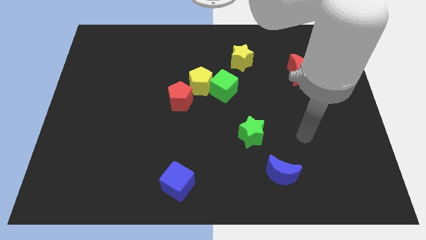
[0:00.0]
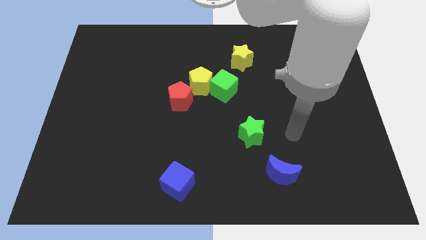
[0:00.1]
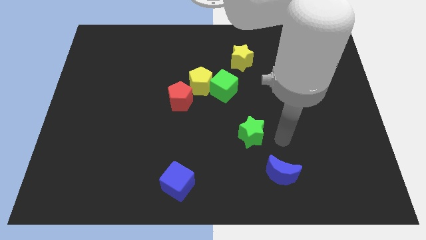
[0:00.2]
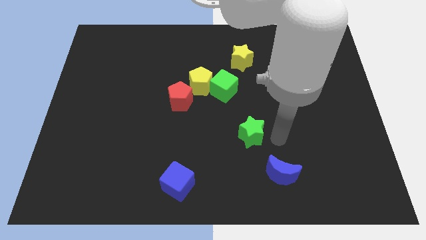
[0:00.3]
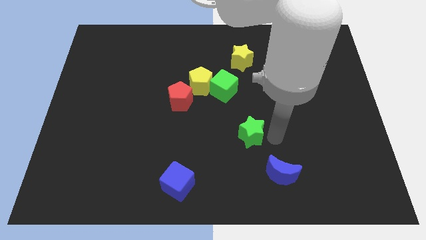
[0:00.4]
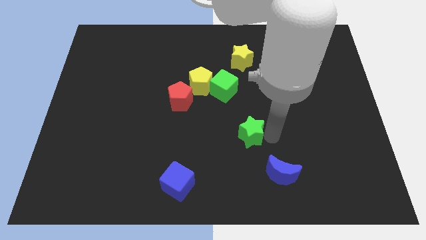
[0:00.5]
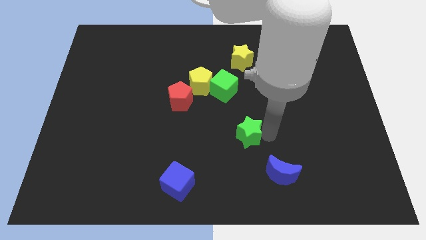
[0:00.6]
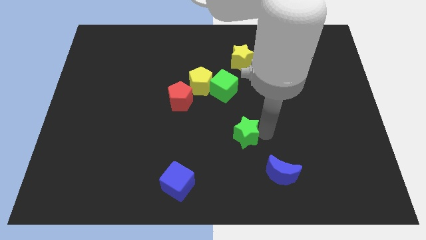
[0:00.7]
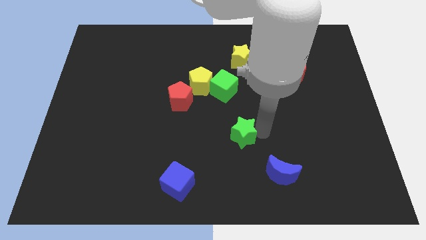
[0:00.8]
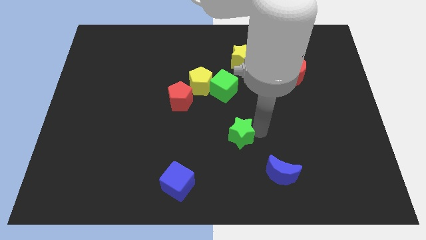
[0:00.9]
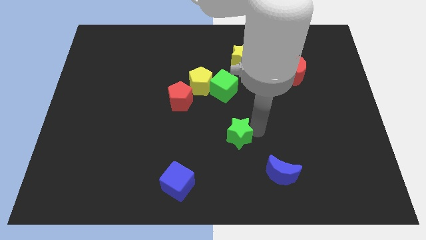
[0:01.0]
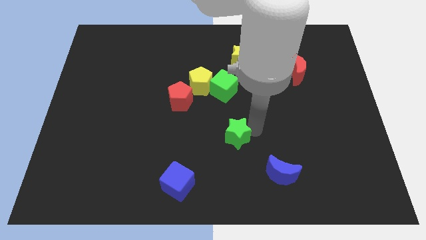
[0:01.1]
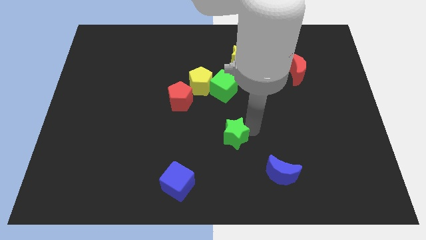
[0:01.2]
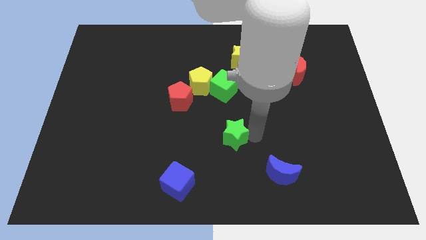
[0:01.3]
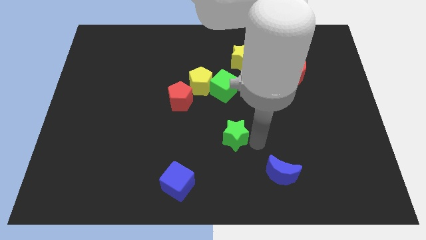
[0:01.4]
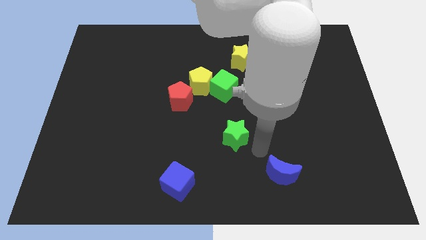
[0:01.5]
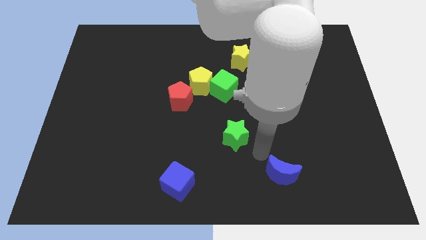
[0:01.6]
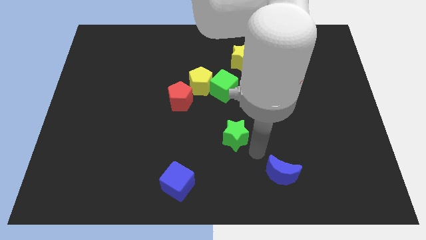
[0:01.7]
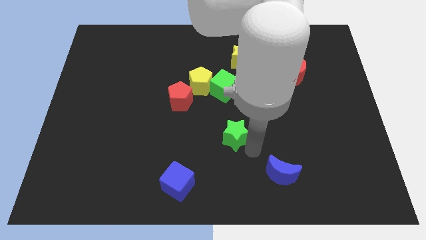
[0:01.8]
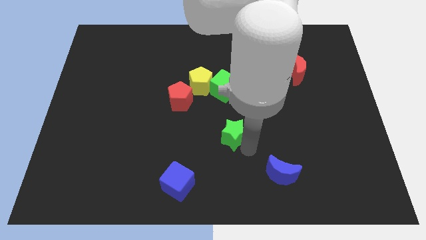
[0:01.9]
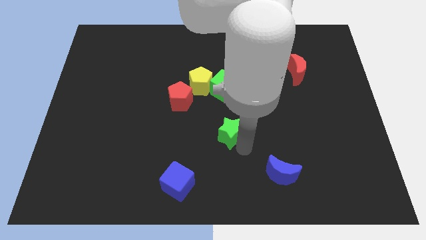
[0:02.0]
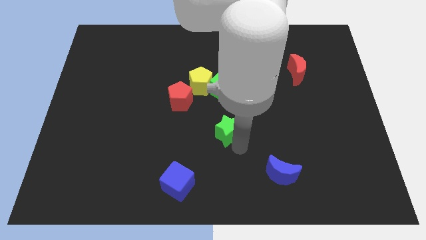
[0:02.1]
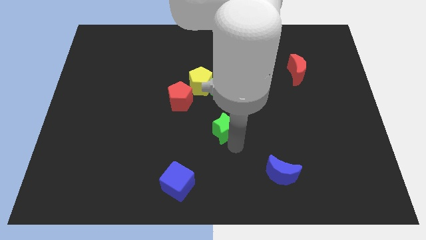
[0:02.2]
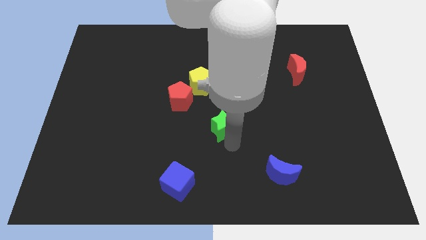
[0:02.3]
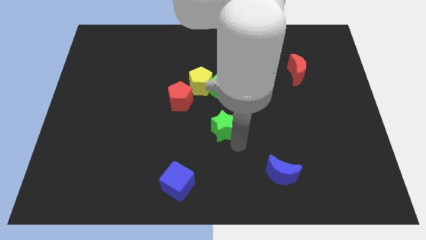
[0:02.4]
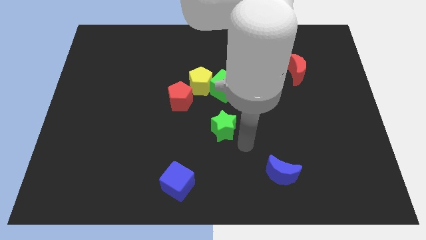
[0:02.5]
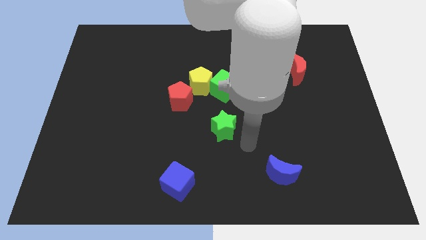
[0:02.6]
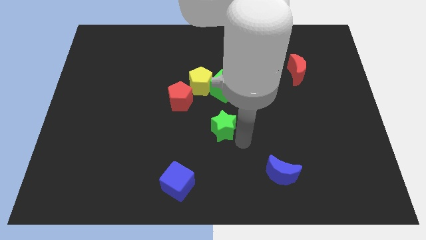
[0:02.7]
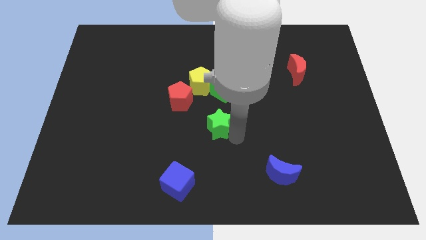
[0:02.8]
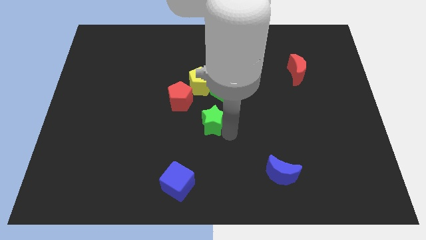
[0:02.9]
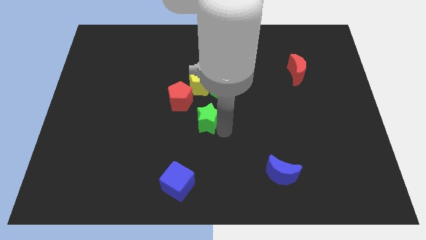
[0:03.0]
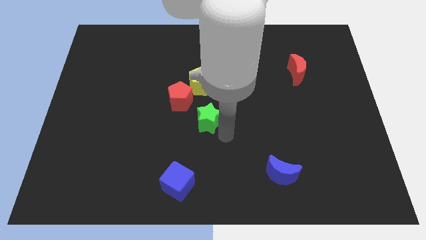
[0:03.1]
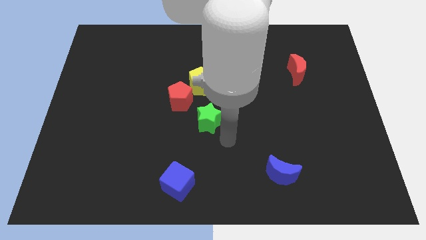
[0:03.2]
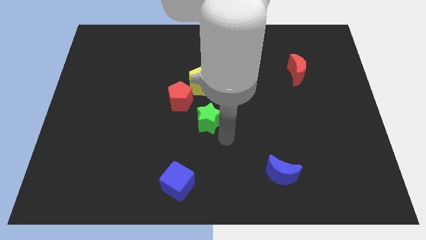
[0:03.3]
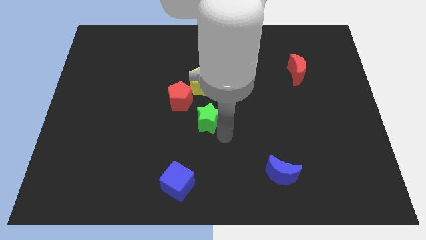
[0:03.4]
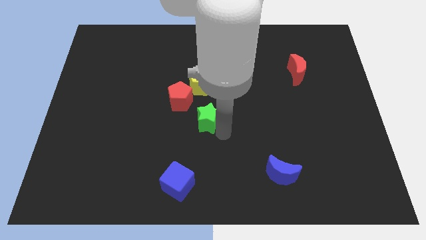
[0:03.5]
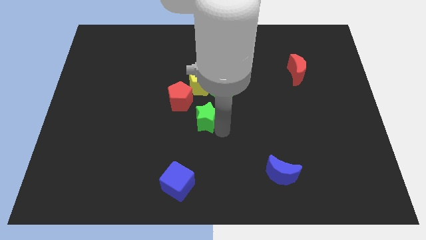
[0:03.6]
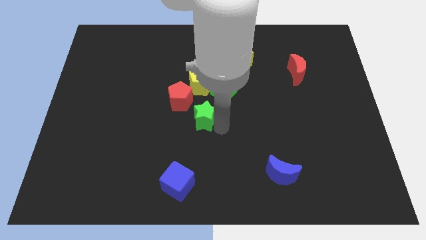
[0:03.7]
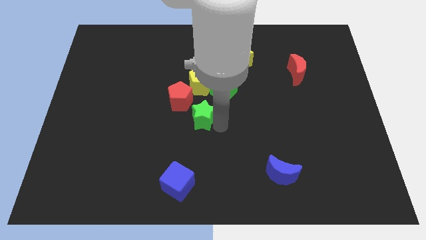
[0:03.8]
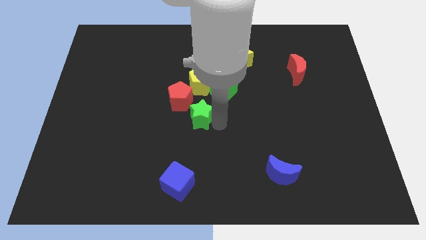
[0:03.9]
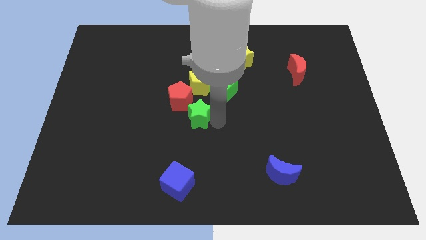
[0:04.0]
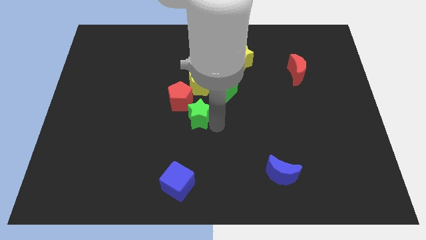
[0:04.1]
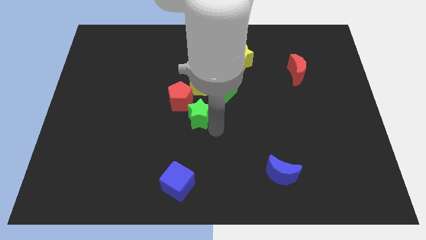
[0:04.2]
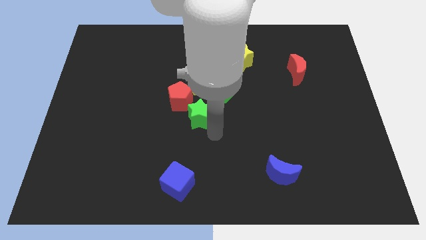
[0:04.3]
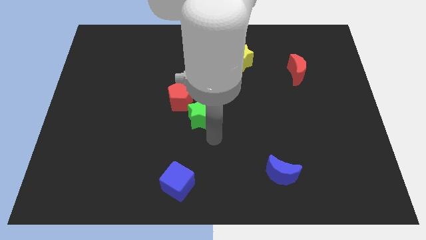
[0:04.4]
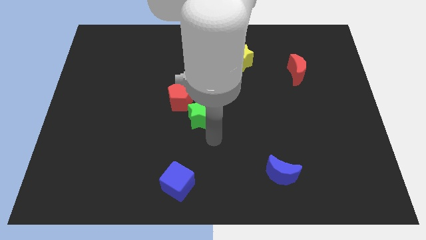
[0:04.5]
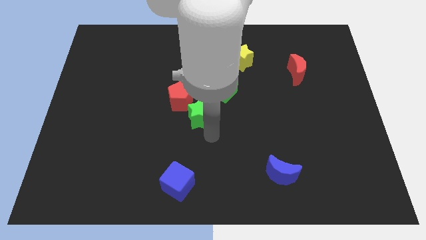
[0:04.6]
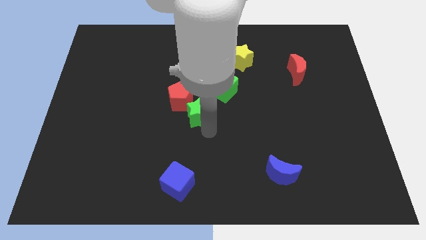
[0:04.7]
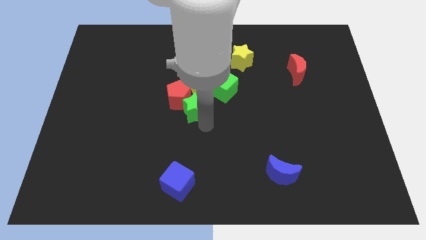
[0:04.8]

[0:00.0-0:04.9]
slide the green star to the red pentagon

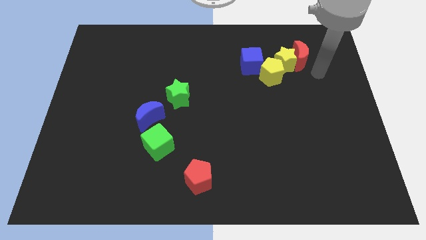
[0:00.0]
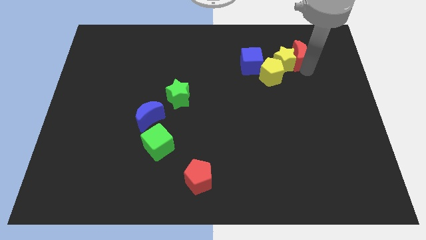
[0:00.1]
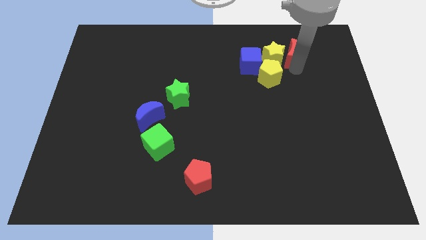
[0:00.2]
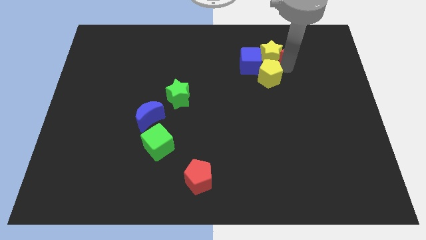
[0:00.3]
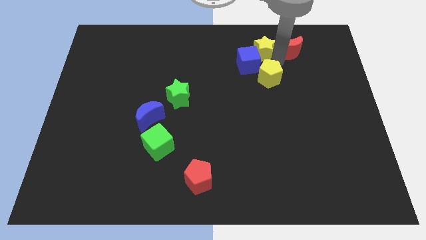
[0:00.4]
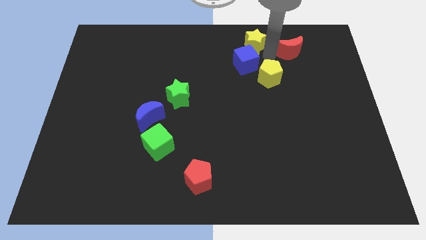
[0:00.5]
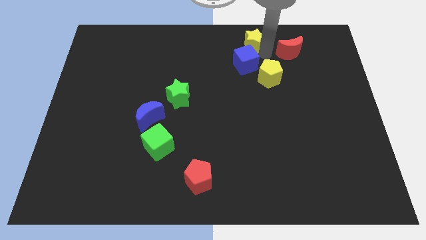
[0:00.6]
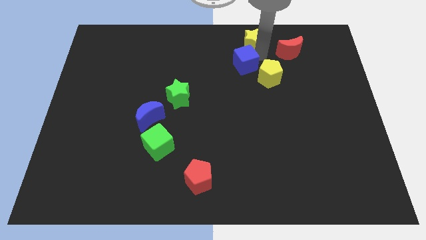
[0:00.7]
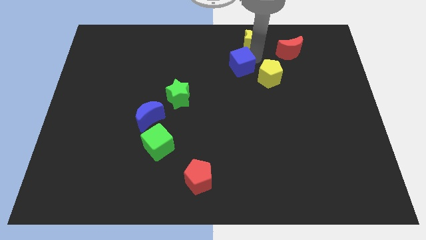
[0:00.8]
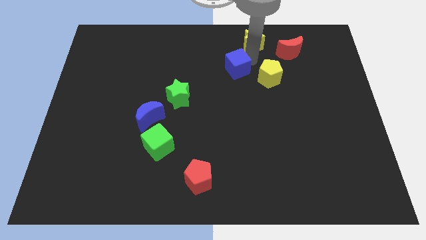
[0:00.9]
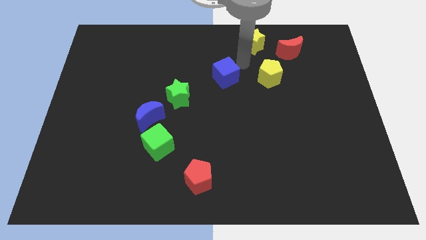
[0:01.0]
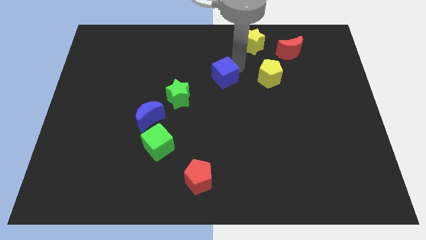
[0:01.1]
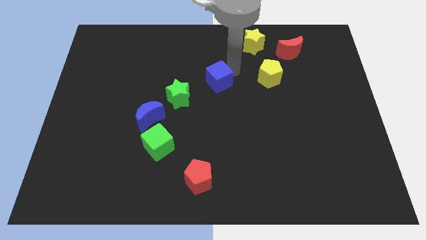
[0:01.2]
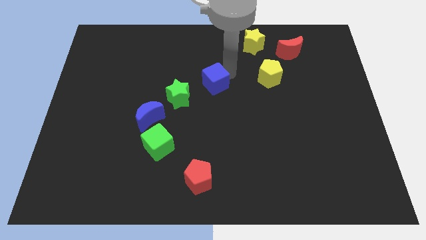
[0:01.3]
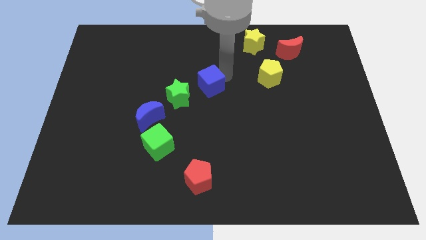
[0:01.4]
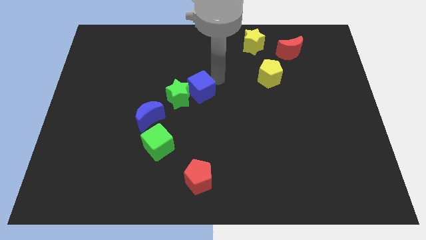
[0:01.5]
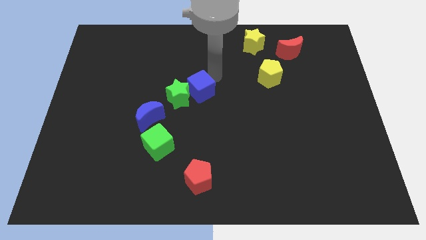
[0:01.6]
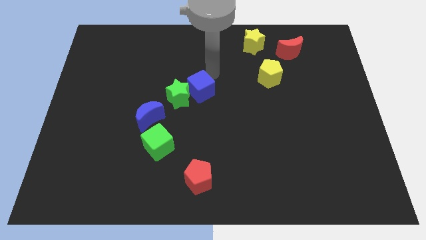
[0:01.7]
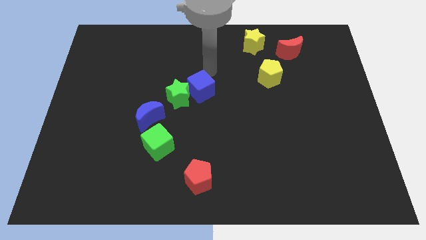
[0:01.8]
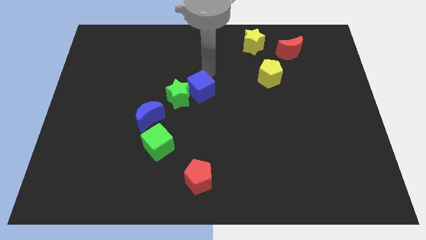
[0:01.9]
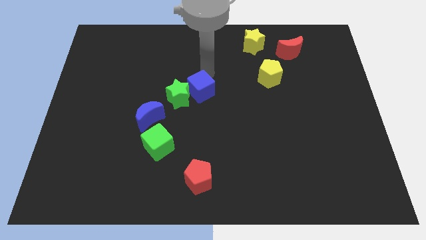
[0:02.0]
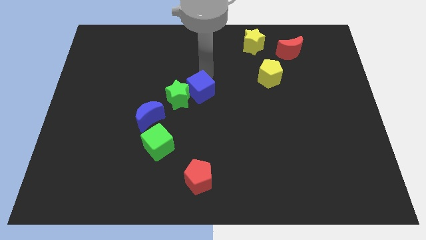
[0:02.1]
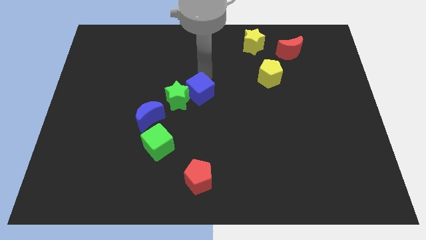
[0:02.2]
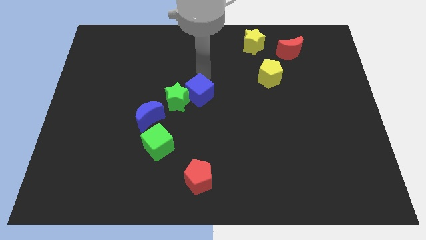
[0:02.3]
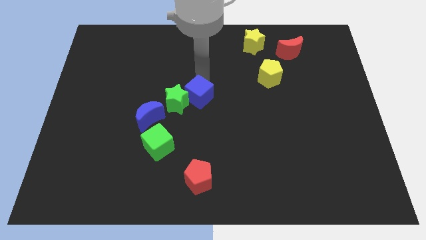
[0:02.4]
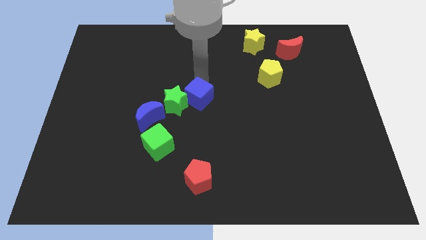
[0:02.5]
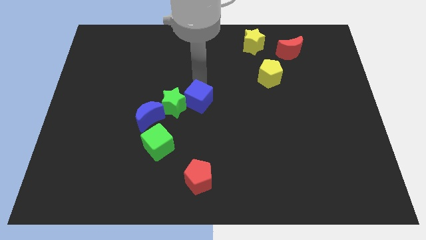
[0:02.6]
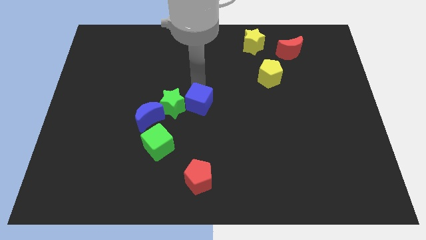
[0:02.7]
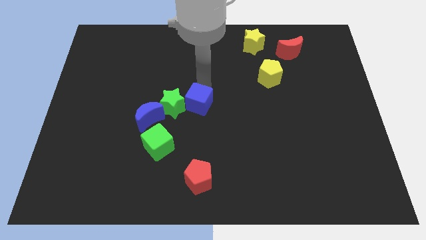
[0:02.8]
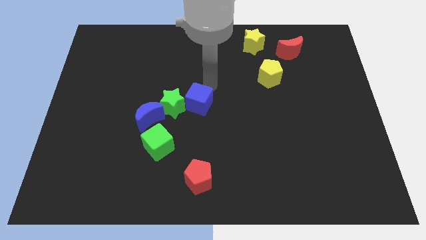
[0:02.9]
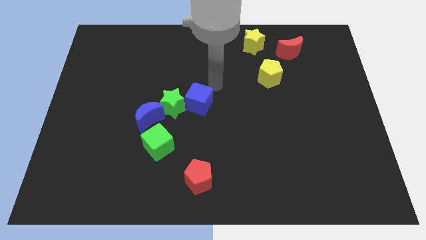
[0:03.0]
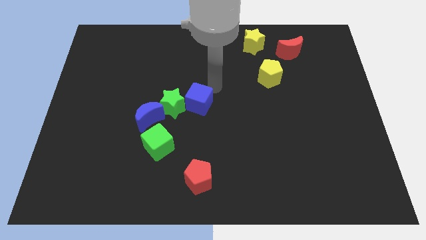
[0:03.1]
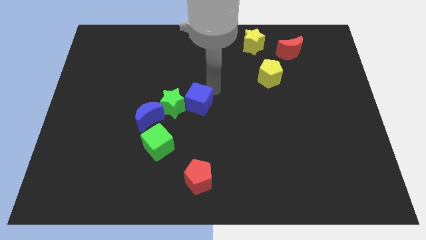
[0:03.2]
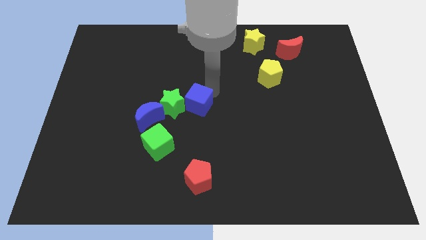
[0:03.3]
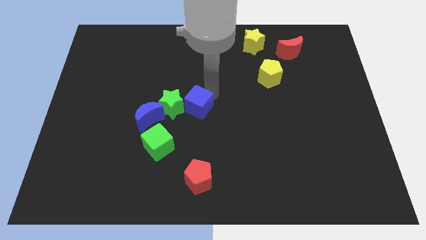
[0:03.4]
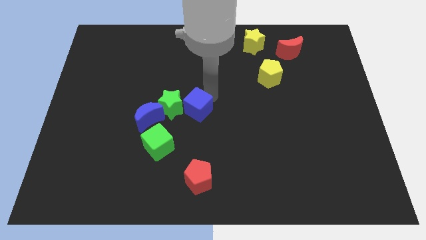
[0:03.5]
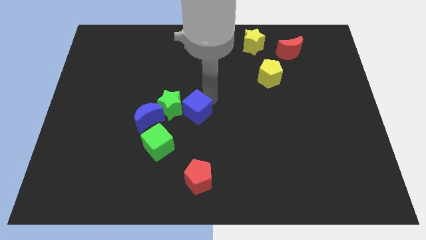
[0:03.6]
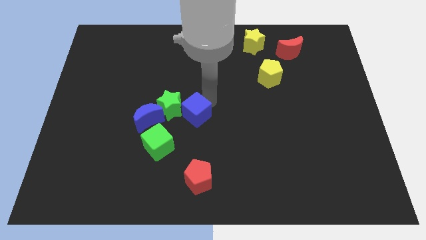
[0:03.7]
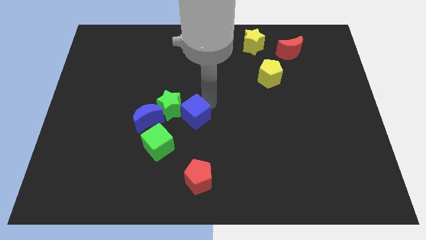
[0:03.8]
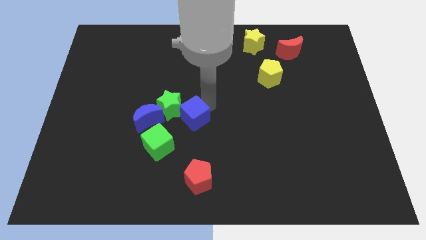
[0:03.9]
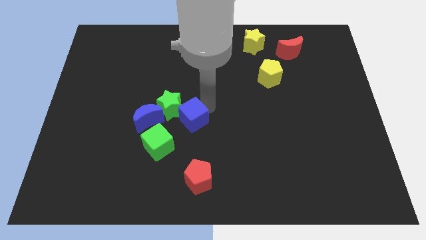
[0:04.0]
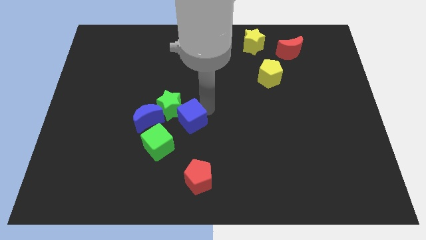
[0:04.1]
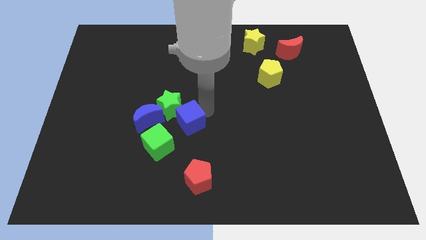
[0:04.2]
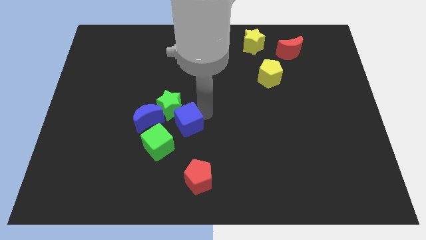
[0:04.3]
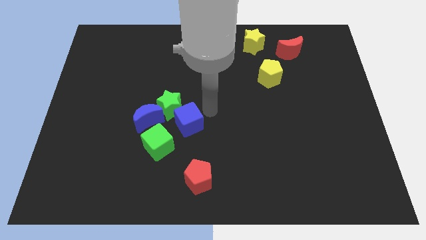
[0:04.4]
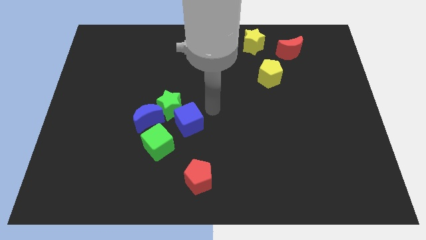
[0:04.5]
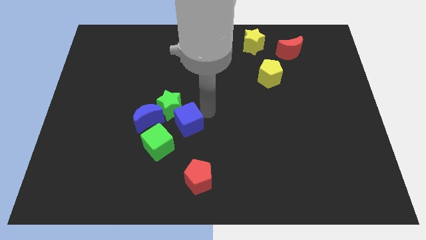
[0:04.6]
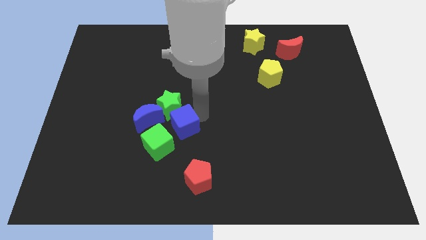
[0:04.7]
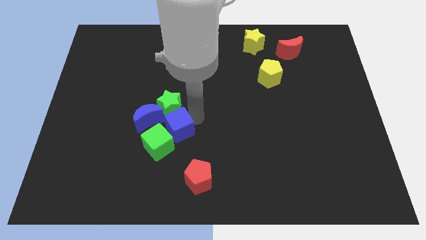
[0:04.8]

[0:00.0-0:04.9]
slide the blue cube next to the green cube
